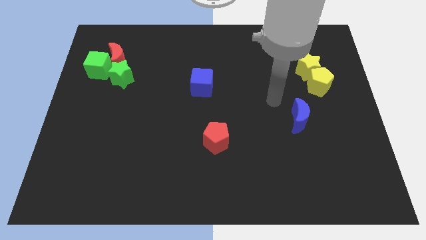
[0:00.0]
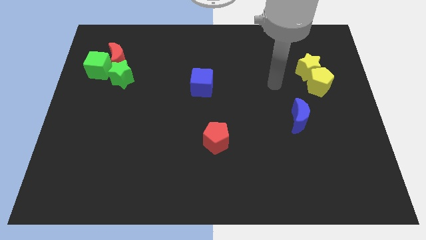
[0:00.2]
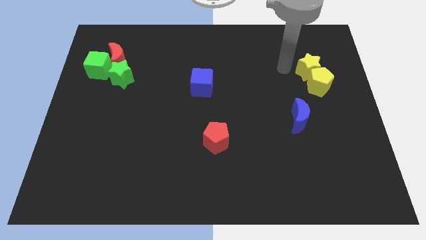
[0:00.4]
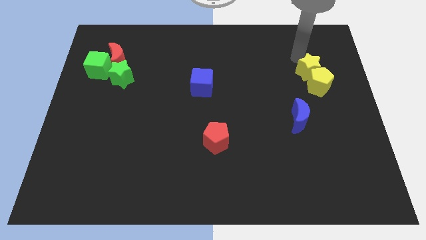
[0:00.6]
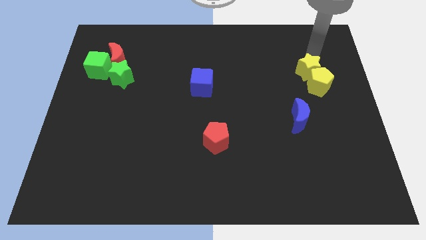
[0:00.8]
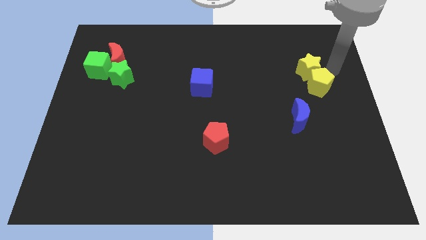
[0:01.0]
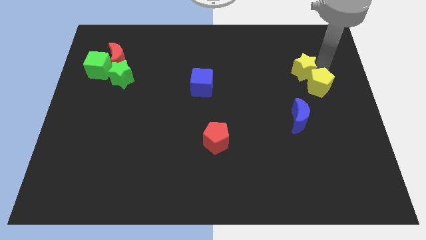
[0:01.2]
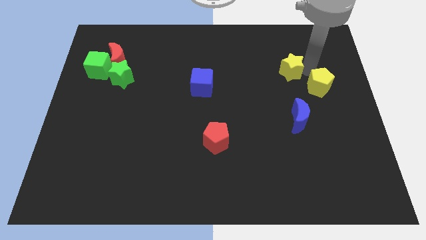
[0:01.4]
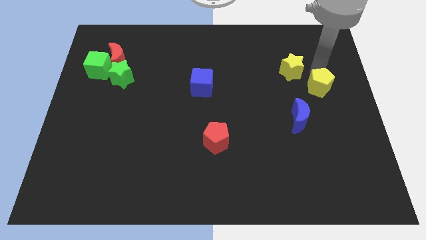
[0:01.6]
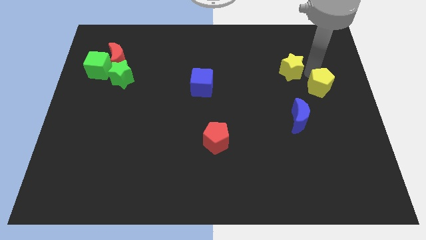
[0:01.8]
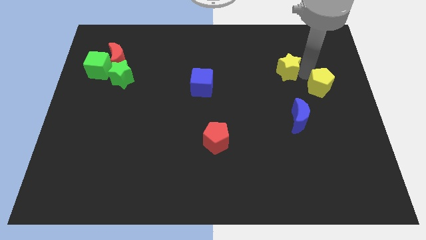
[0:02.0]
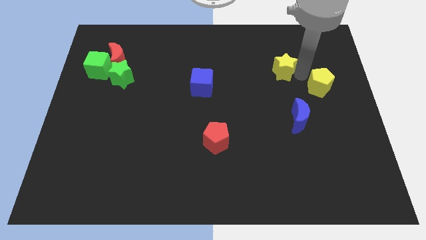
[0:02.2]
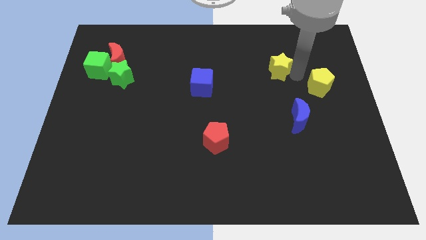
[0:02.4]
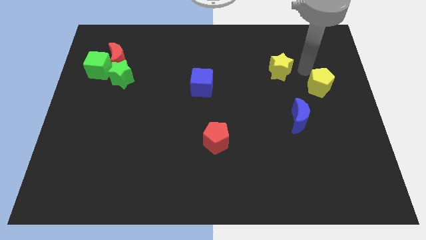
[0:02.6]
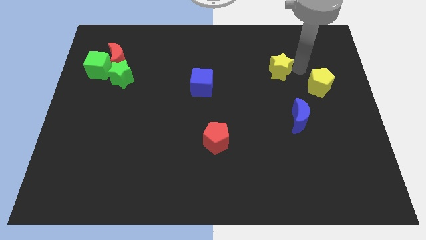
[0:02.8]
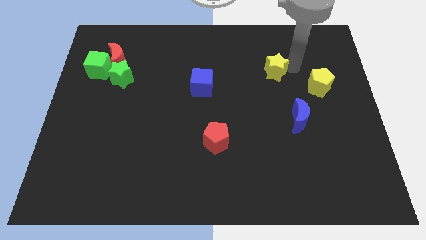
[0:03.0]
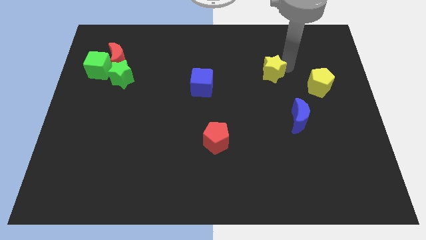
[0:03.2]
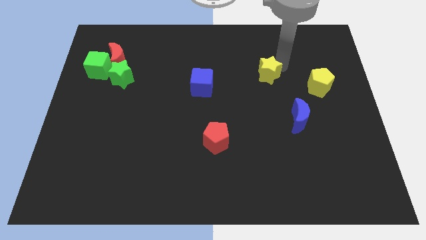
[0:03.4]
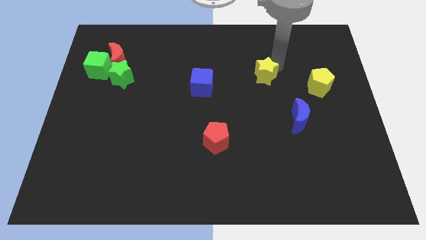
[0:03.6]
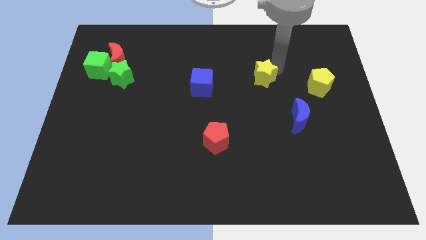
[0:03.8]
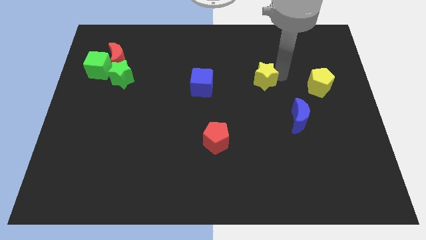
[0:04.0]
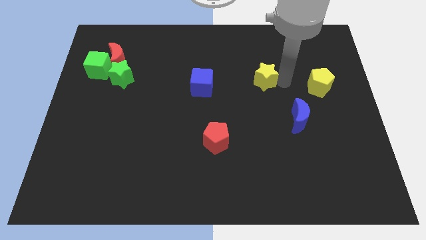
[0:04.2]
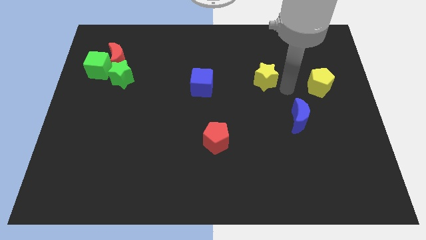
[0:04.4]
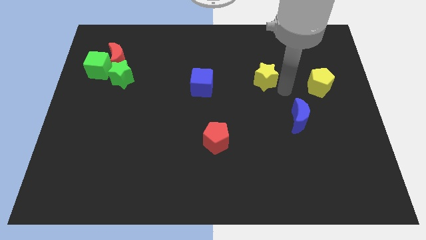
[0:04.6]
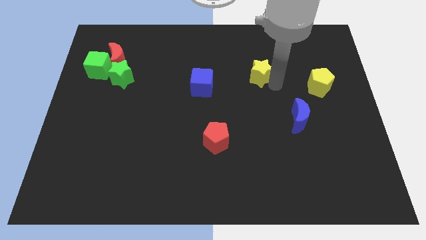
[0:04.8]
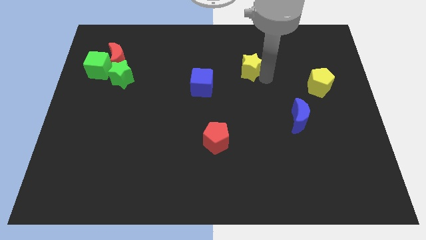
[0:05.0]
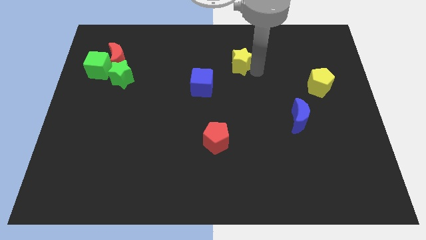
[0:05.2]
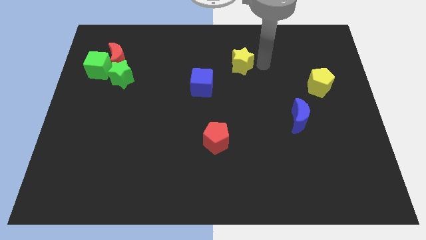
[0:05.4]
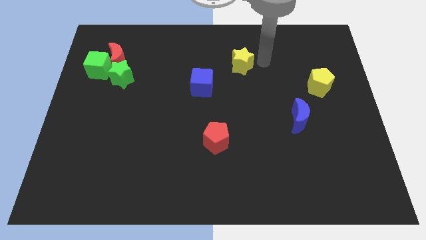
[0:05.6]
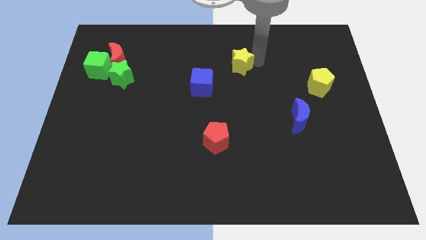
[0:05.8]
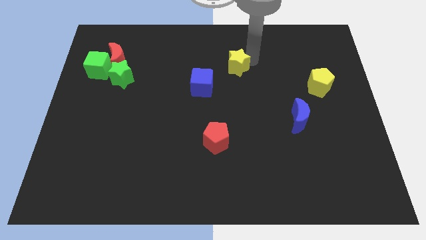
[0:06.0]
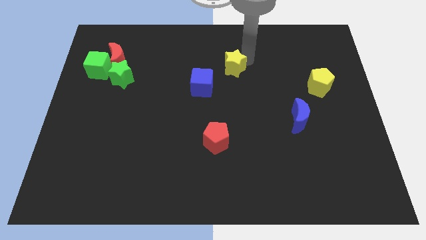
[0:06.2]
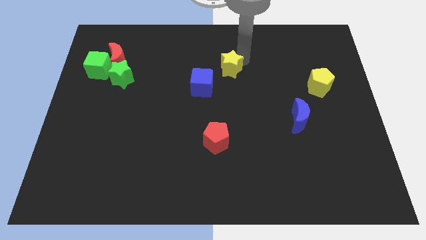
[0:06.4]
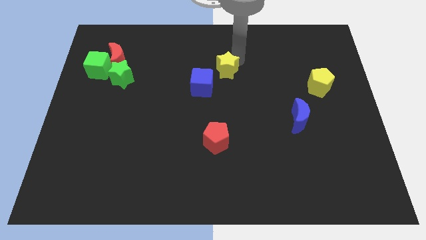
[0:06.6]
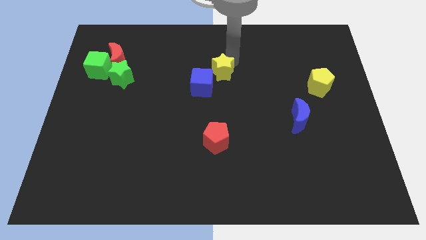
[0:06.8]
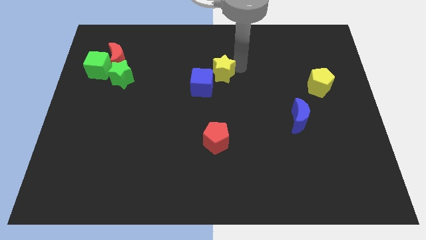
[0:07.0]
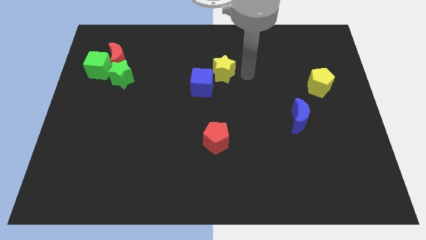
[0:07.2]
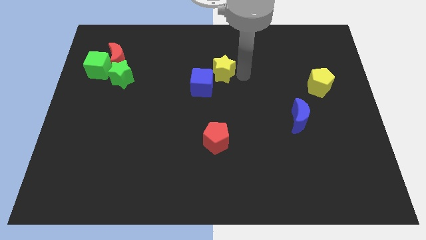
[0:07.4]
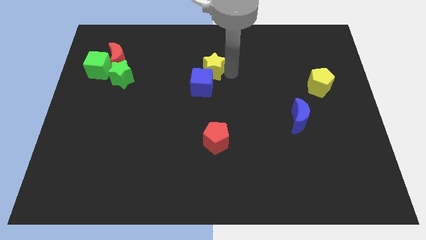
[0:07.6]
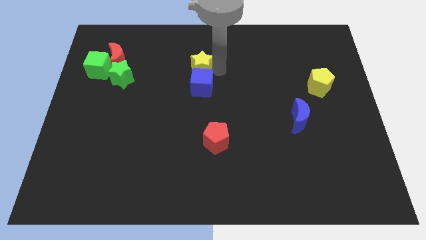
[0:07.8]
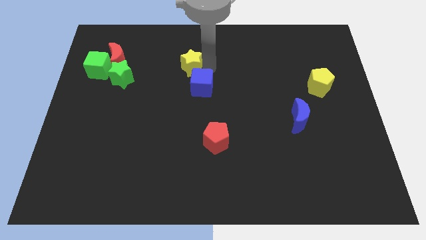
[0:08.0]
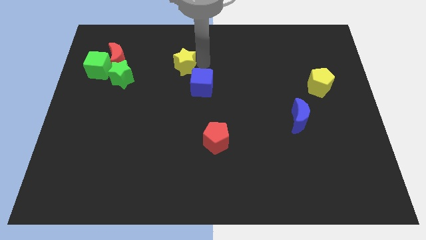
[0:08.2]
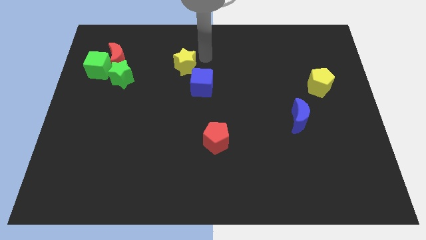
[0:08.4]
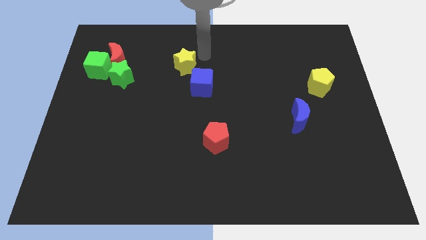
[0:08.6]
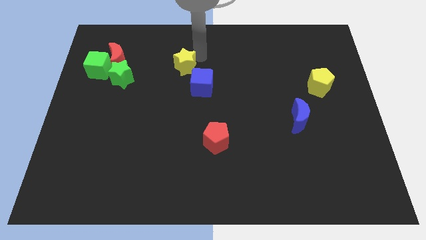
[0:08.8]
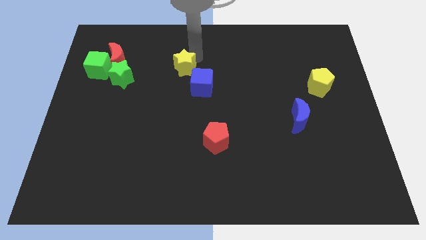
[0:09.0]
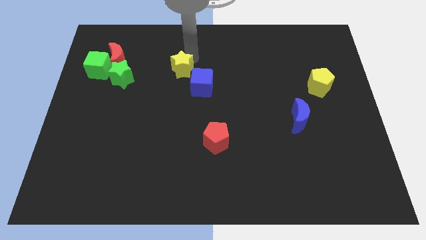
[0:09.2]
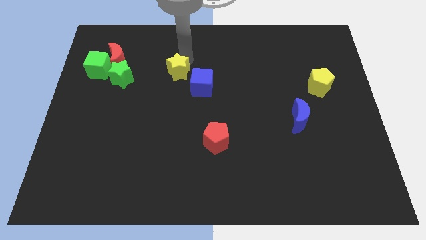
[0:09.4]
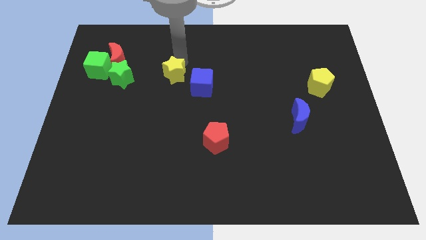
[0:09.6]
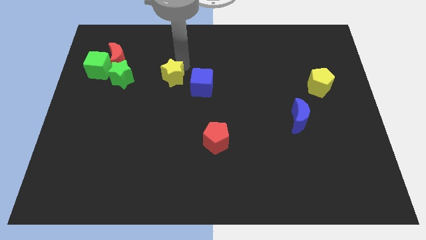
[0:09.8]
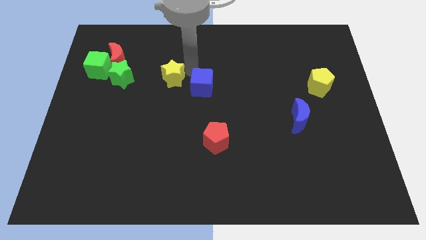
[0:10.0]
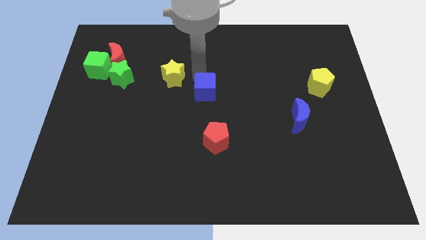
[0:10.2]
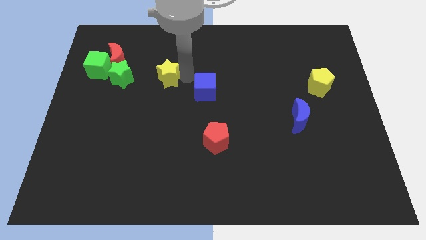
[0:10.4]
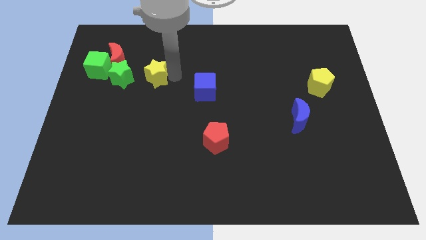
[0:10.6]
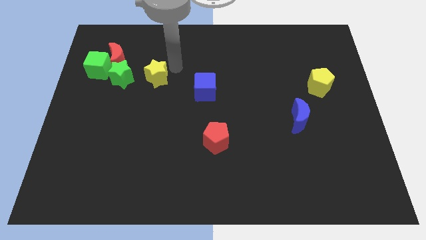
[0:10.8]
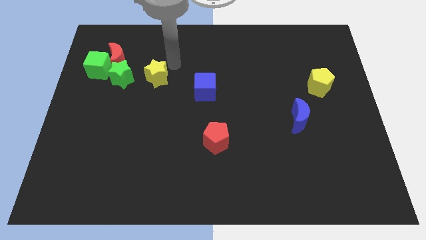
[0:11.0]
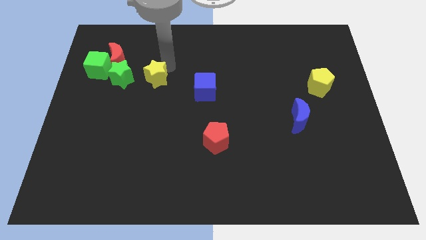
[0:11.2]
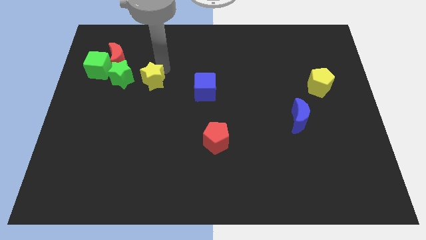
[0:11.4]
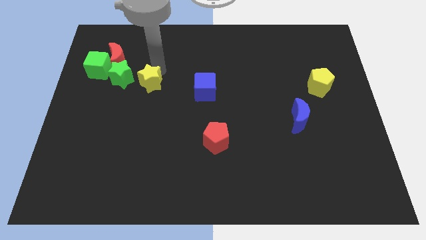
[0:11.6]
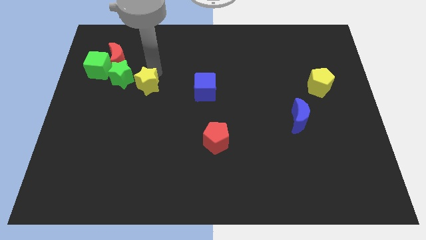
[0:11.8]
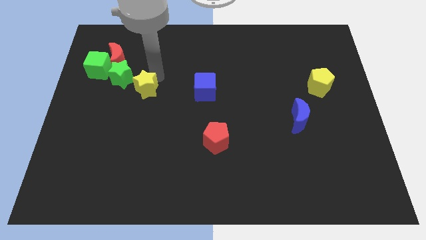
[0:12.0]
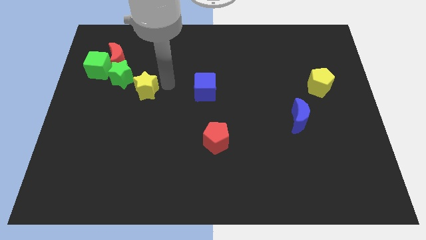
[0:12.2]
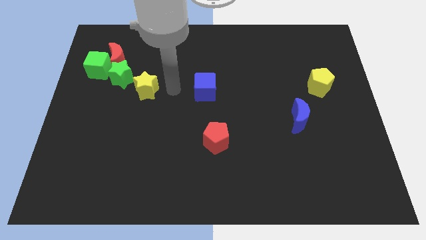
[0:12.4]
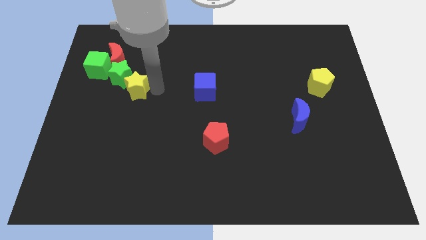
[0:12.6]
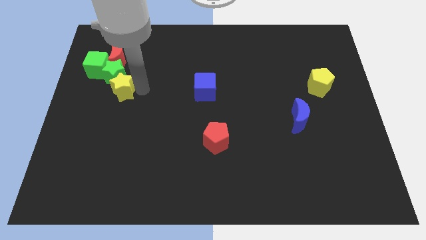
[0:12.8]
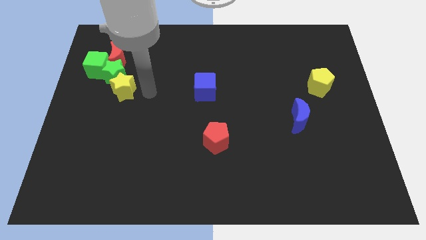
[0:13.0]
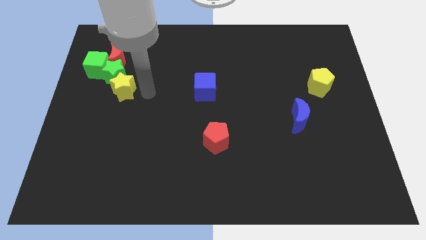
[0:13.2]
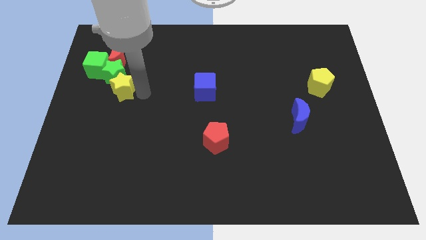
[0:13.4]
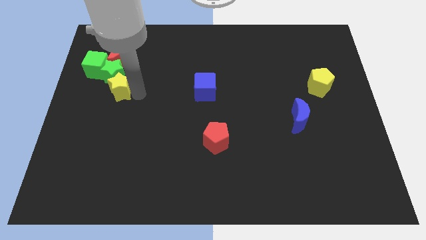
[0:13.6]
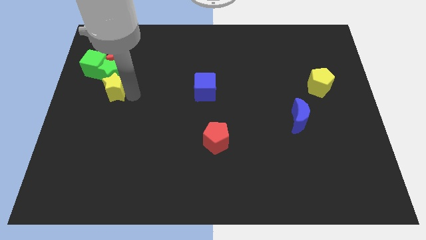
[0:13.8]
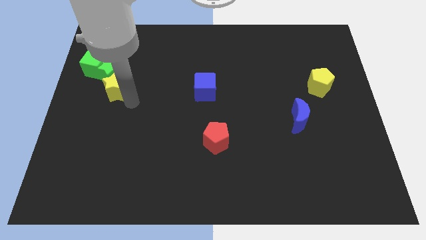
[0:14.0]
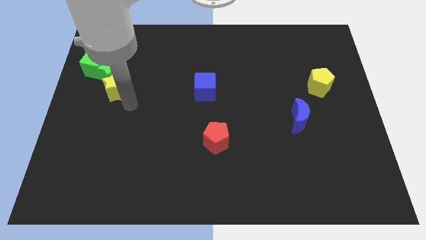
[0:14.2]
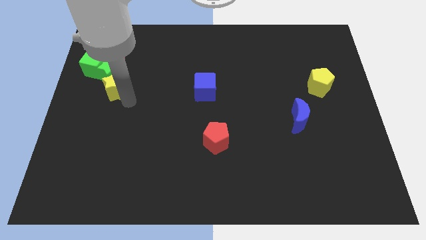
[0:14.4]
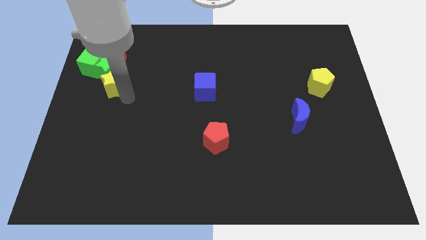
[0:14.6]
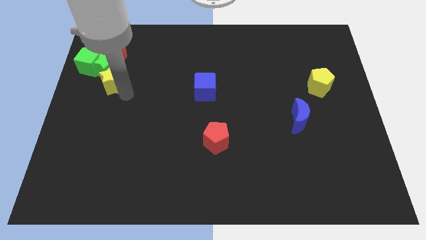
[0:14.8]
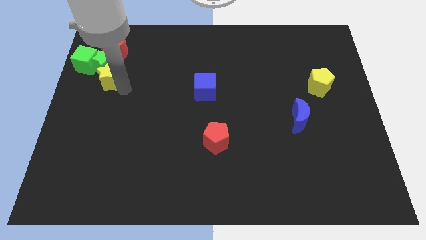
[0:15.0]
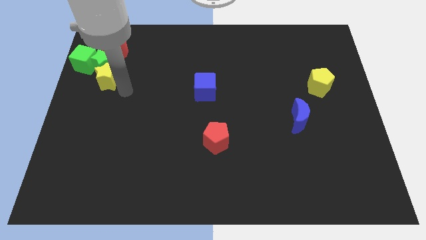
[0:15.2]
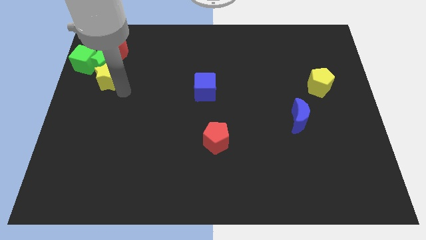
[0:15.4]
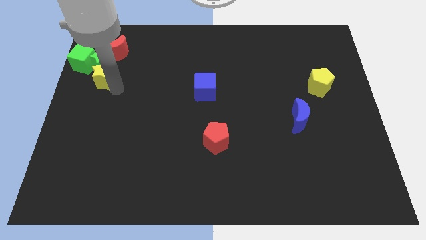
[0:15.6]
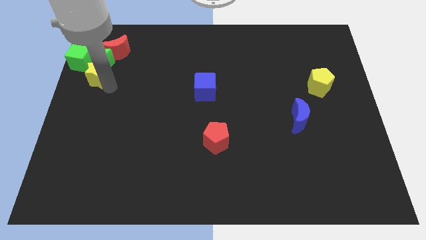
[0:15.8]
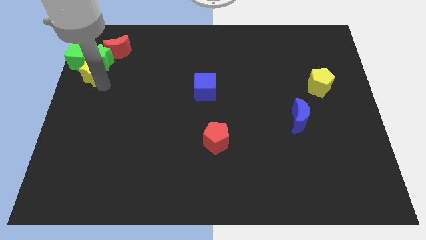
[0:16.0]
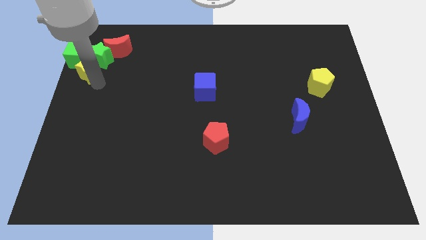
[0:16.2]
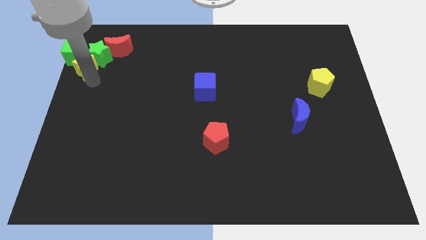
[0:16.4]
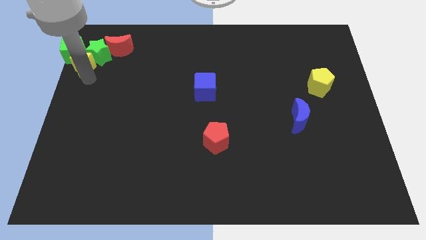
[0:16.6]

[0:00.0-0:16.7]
slide the yellow star towards the green cube
